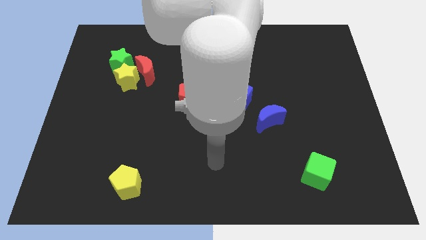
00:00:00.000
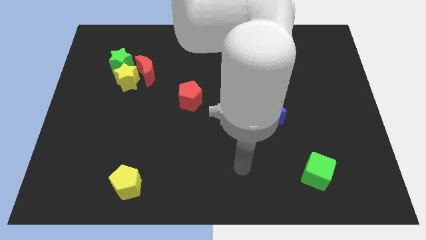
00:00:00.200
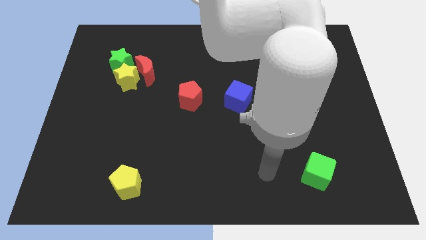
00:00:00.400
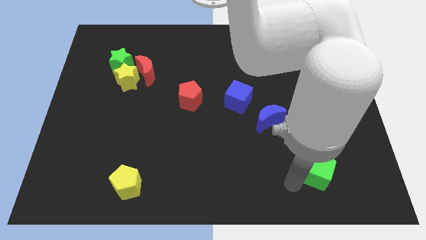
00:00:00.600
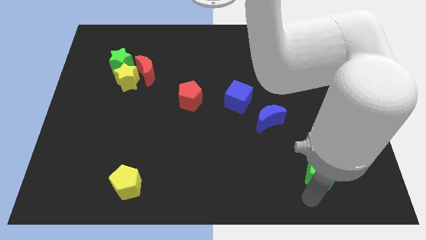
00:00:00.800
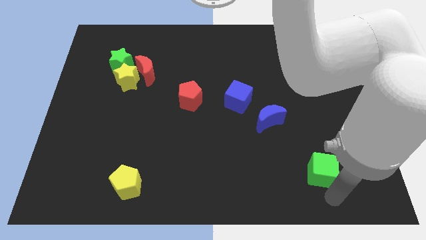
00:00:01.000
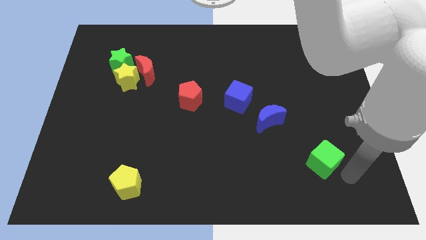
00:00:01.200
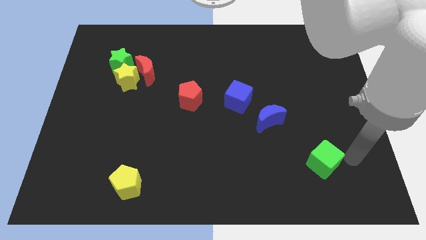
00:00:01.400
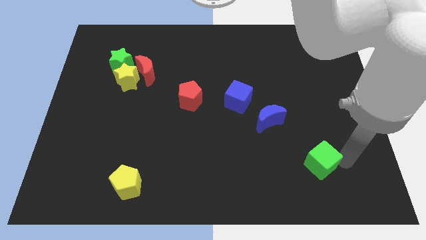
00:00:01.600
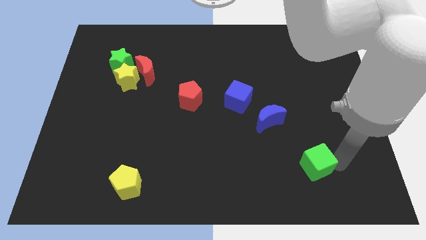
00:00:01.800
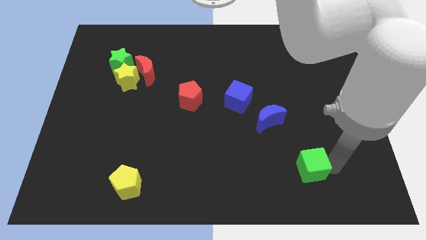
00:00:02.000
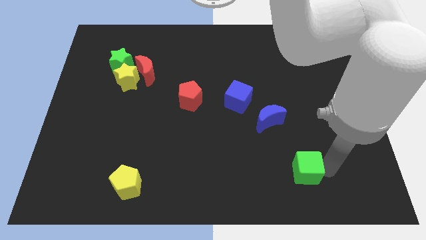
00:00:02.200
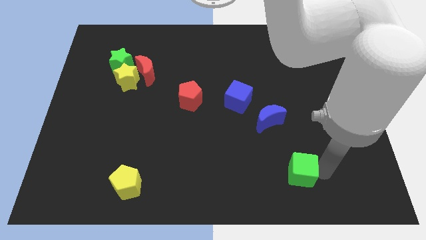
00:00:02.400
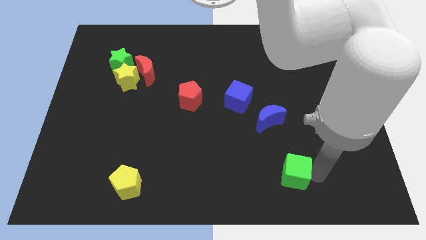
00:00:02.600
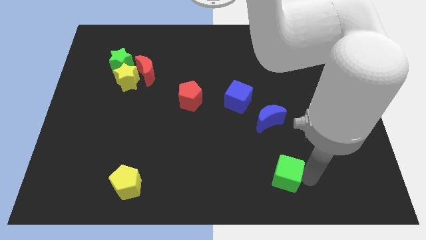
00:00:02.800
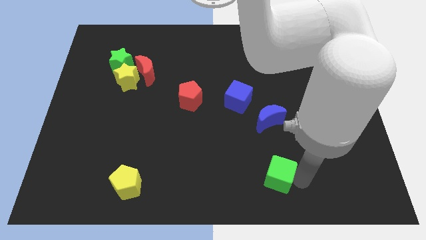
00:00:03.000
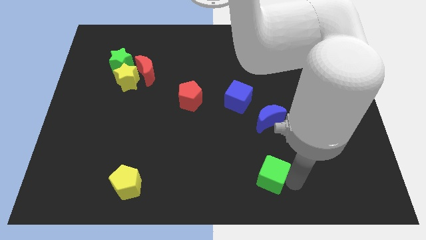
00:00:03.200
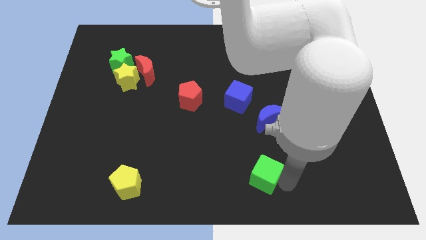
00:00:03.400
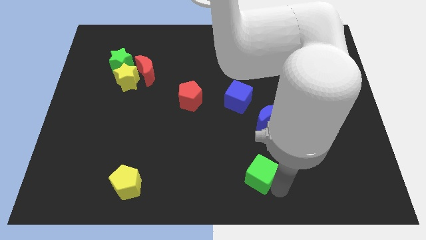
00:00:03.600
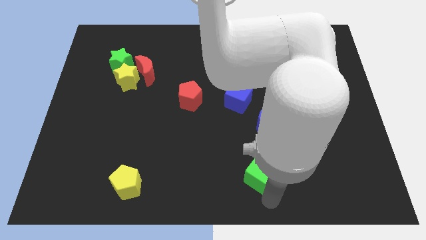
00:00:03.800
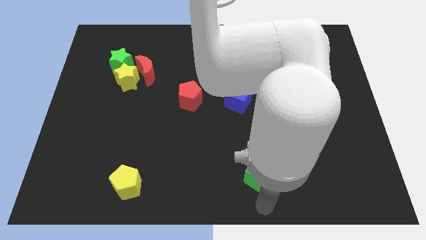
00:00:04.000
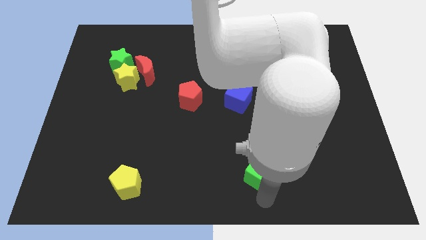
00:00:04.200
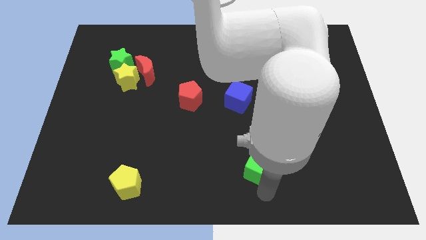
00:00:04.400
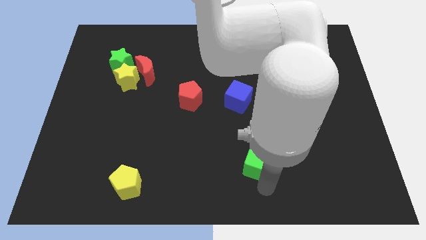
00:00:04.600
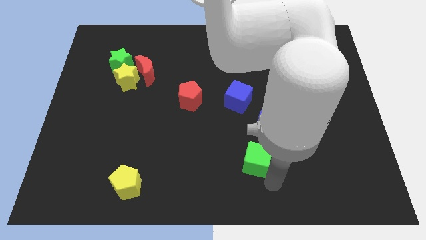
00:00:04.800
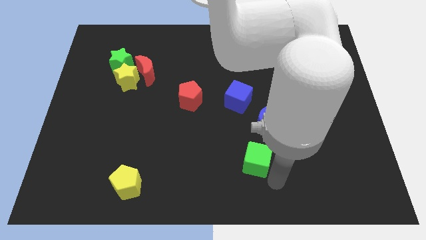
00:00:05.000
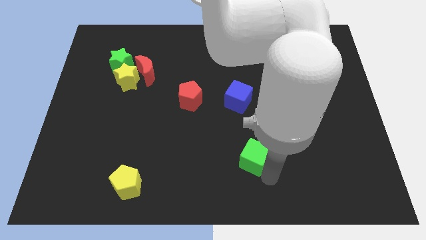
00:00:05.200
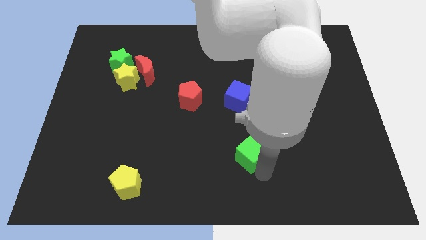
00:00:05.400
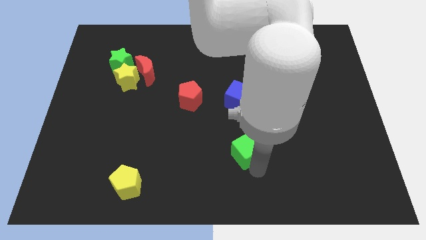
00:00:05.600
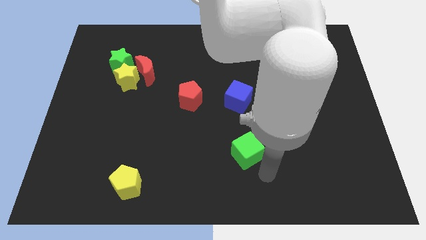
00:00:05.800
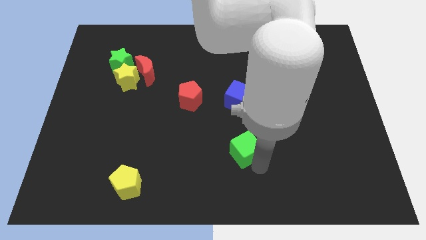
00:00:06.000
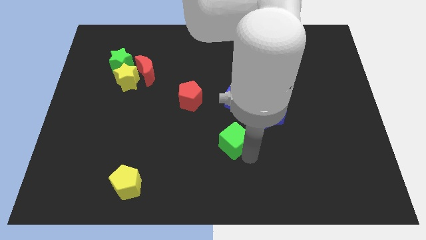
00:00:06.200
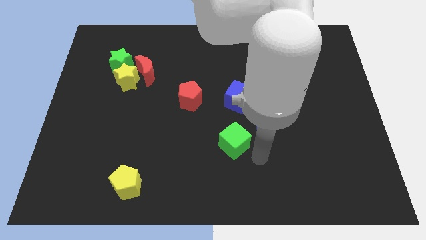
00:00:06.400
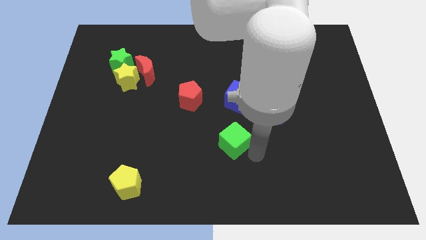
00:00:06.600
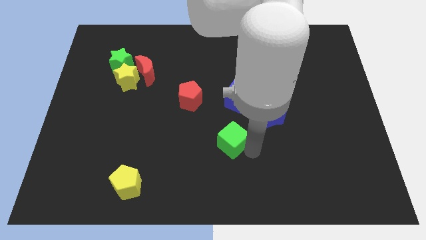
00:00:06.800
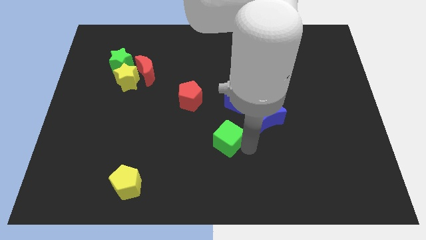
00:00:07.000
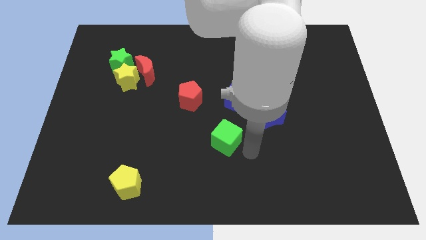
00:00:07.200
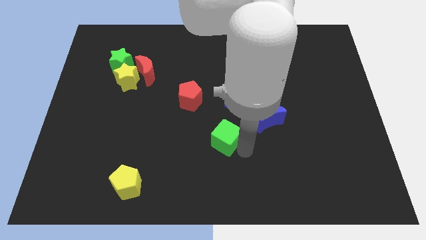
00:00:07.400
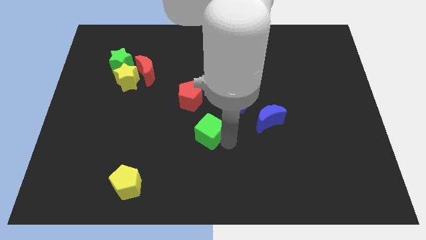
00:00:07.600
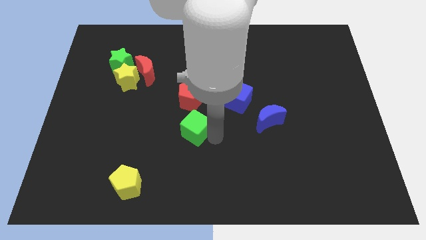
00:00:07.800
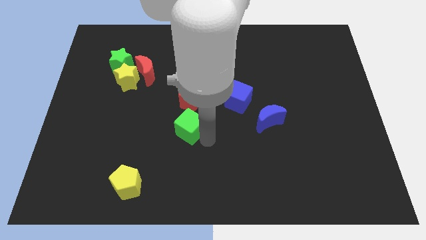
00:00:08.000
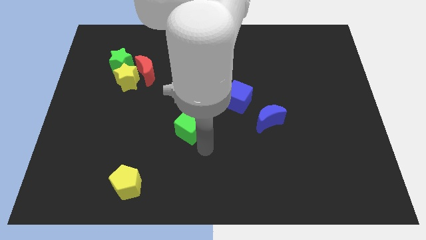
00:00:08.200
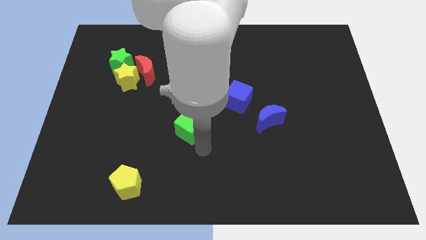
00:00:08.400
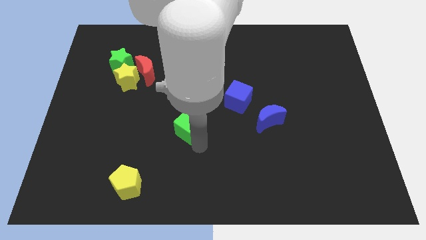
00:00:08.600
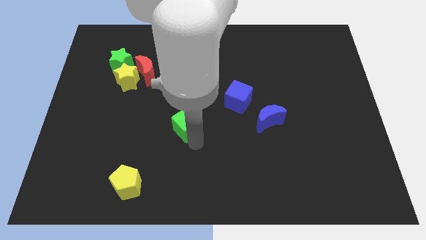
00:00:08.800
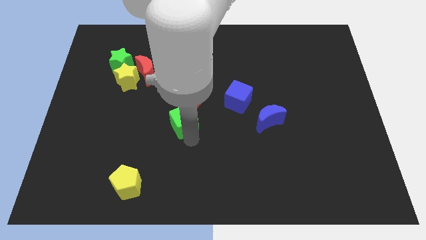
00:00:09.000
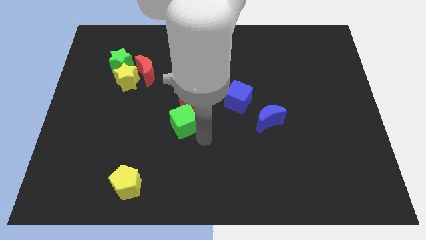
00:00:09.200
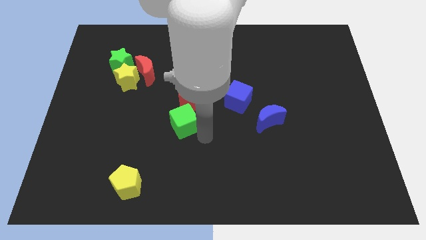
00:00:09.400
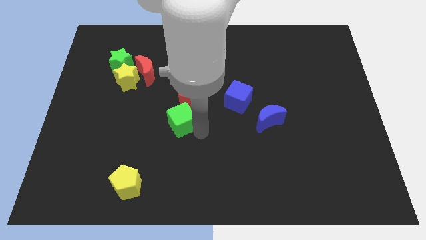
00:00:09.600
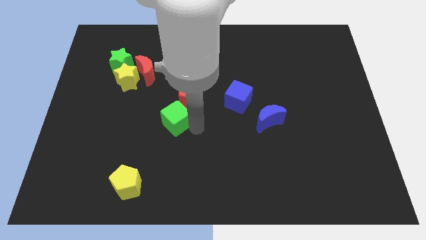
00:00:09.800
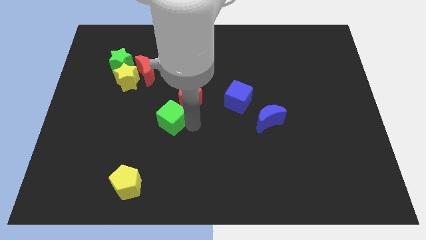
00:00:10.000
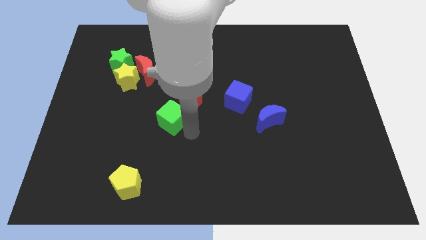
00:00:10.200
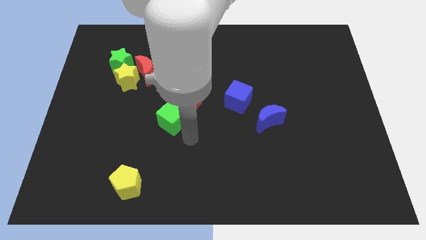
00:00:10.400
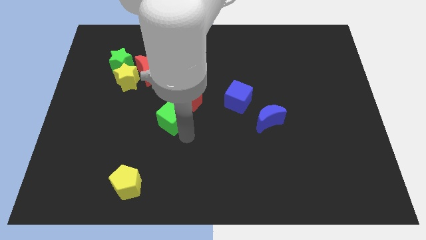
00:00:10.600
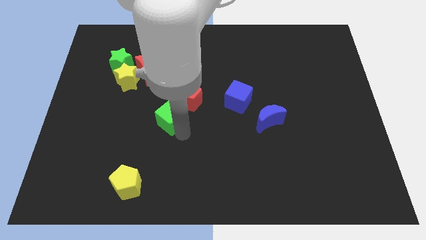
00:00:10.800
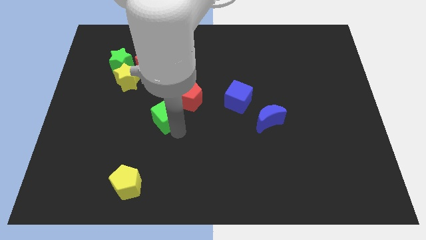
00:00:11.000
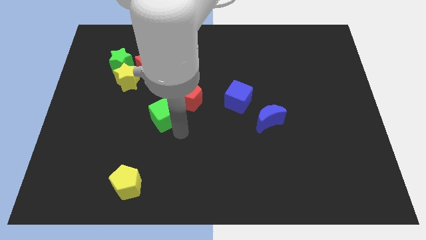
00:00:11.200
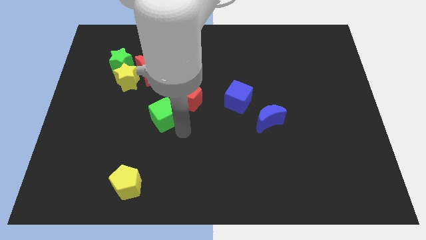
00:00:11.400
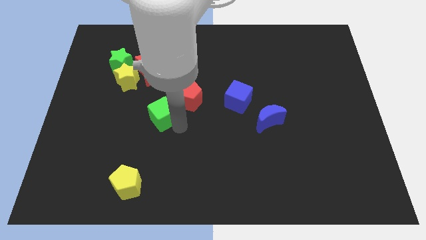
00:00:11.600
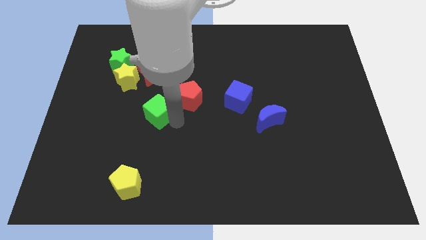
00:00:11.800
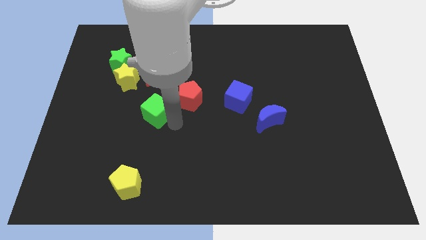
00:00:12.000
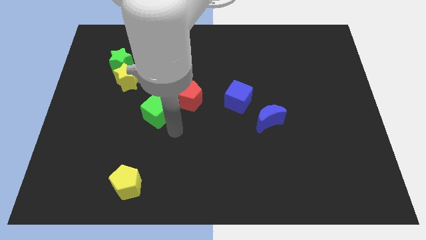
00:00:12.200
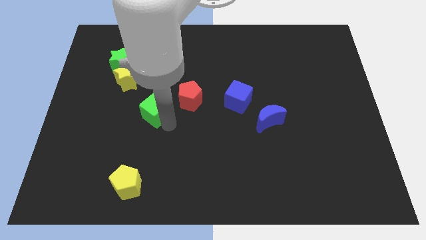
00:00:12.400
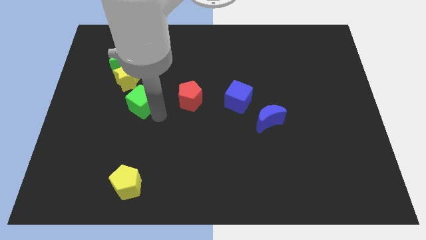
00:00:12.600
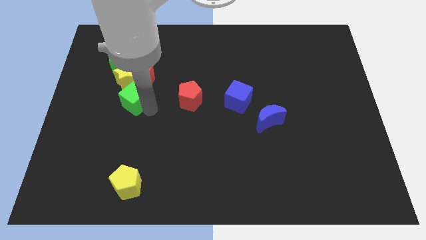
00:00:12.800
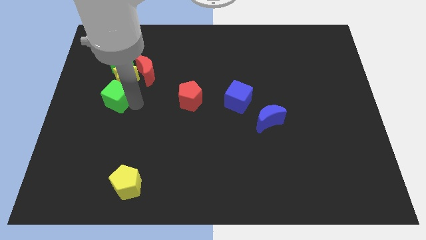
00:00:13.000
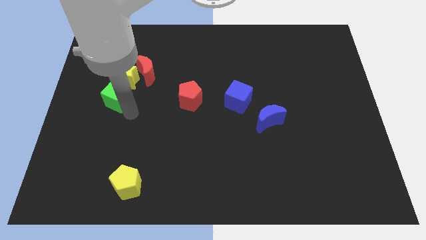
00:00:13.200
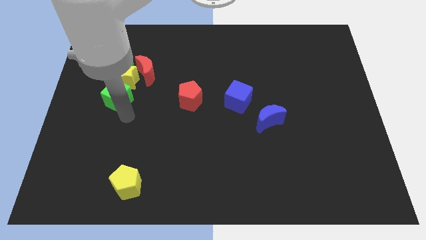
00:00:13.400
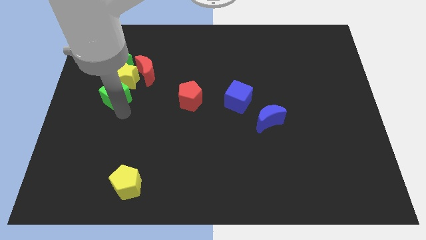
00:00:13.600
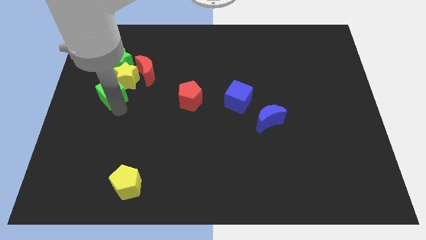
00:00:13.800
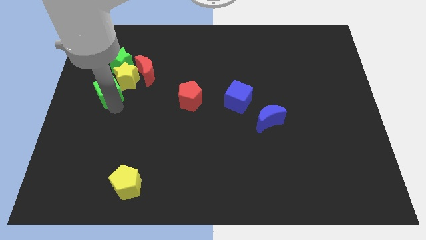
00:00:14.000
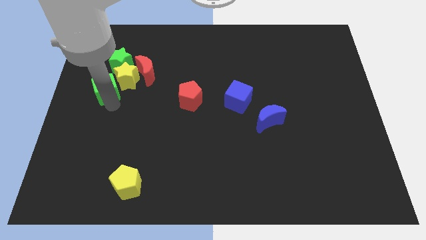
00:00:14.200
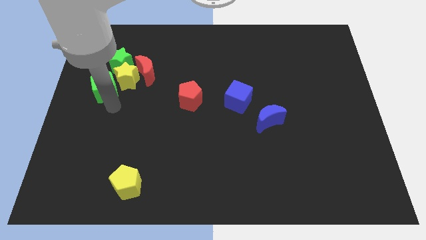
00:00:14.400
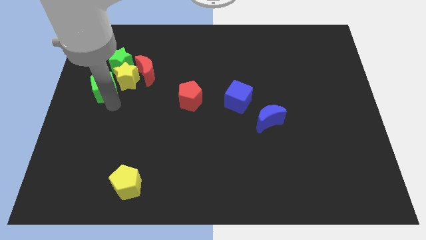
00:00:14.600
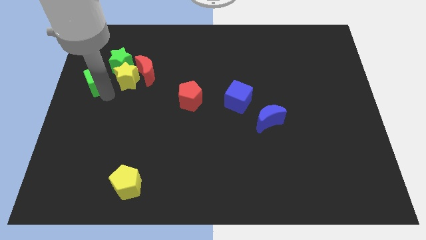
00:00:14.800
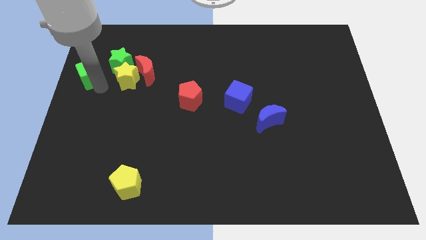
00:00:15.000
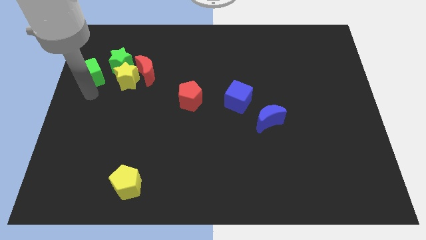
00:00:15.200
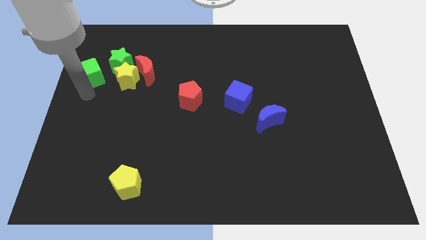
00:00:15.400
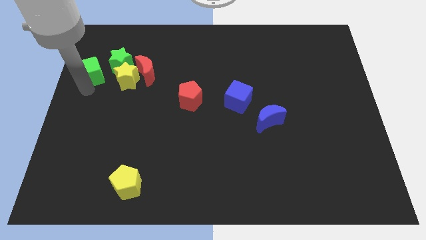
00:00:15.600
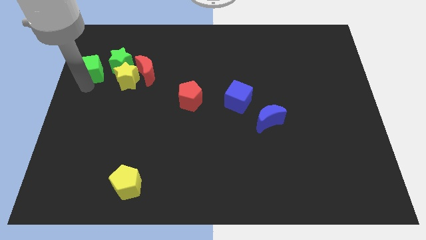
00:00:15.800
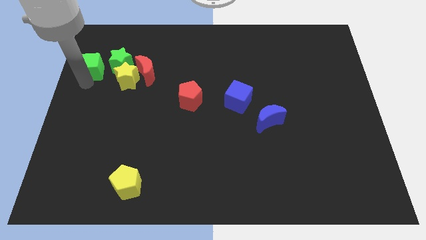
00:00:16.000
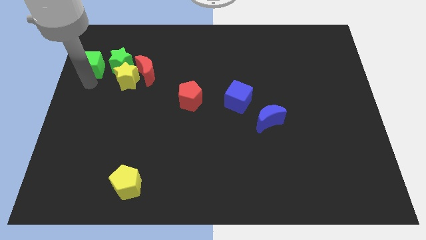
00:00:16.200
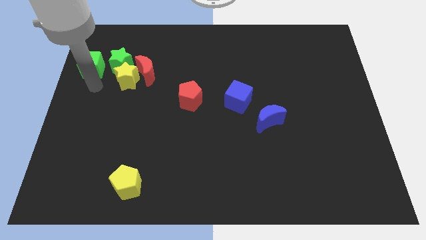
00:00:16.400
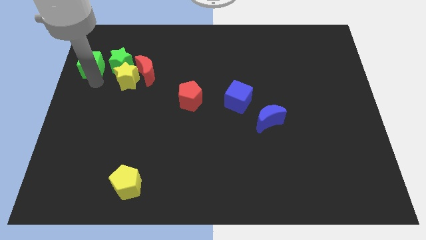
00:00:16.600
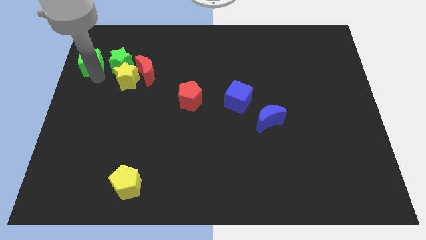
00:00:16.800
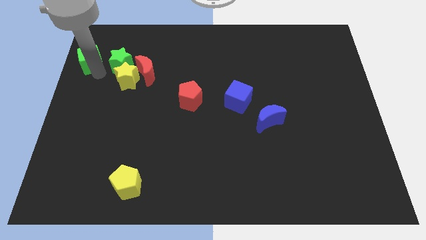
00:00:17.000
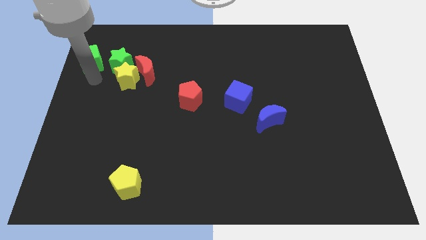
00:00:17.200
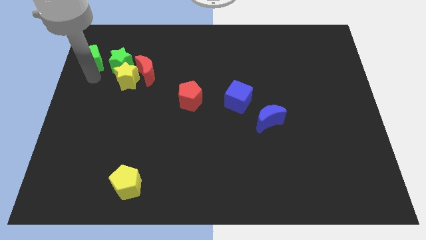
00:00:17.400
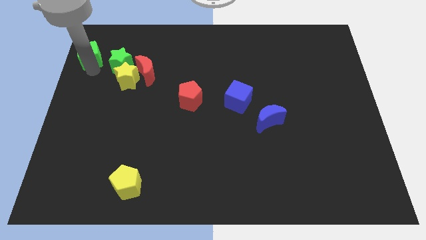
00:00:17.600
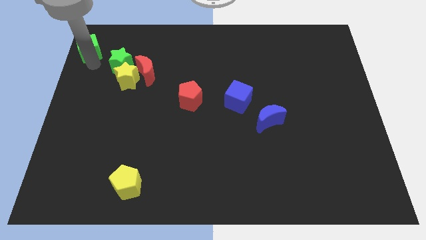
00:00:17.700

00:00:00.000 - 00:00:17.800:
slide the green cube to the top left
